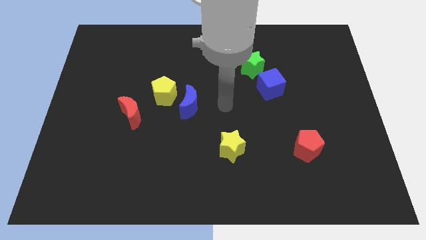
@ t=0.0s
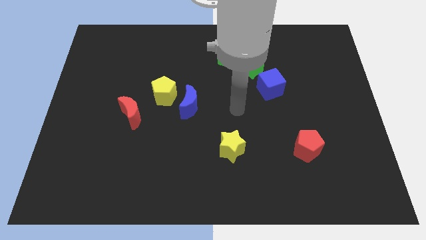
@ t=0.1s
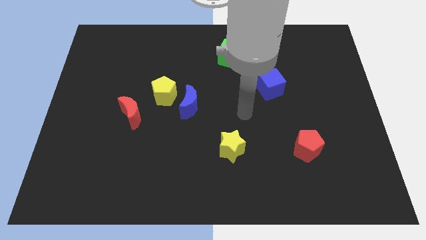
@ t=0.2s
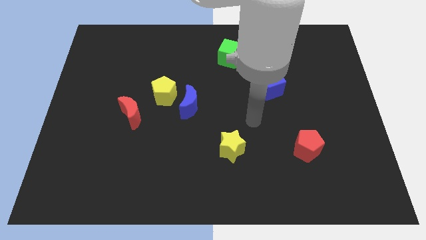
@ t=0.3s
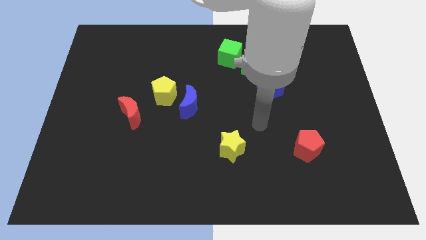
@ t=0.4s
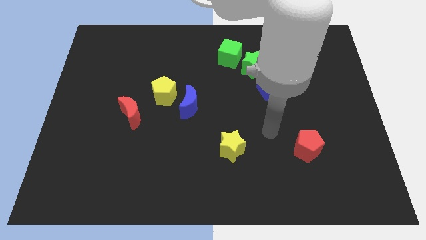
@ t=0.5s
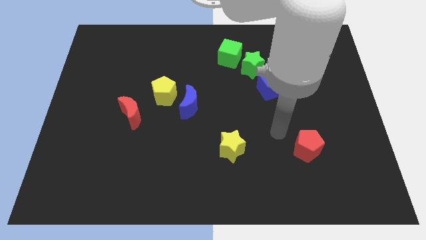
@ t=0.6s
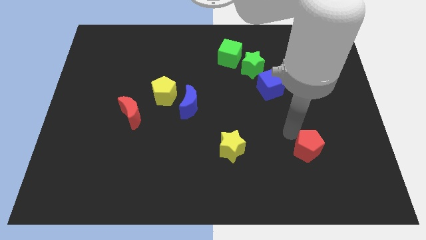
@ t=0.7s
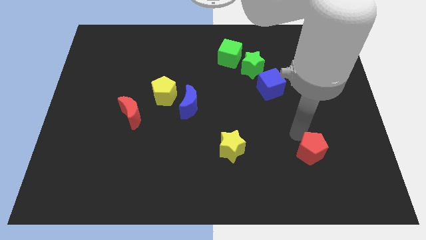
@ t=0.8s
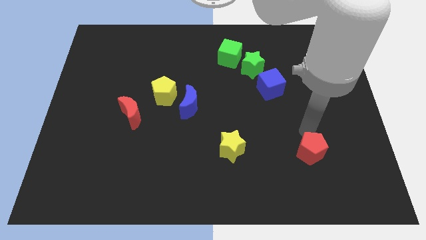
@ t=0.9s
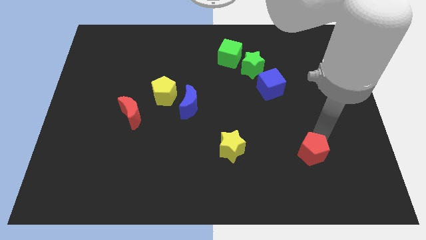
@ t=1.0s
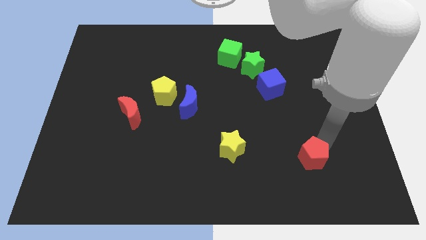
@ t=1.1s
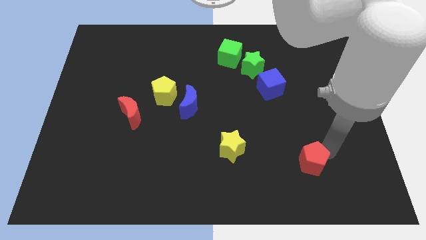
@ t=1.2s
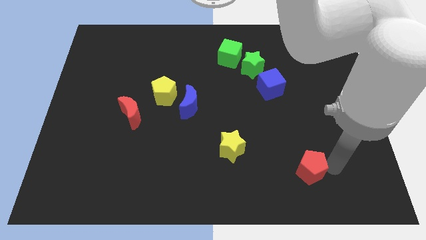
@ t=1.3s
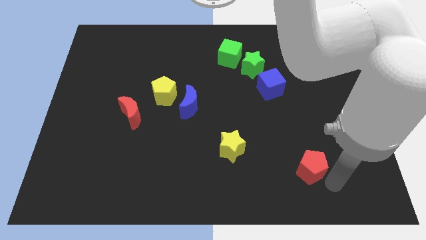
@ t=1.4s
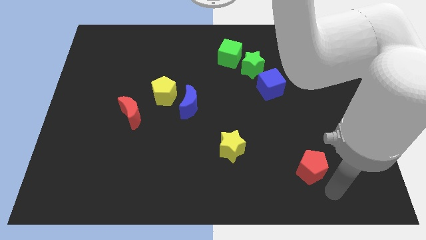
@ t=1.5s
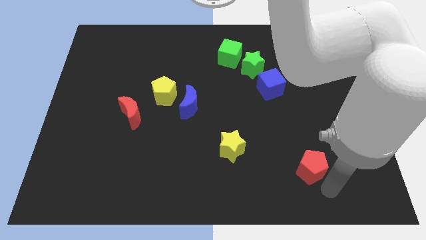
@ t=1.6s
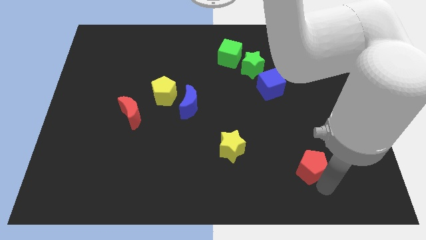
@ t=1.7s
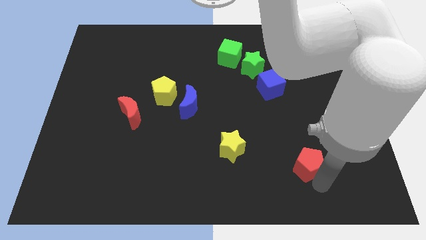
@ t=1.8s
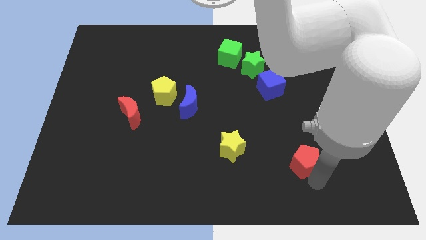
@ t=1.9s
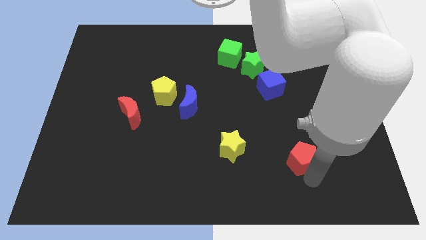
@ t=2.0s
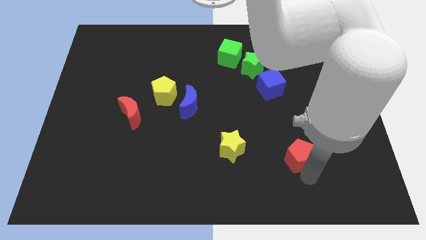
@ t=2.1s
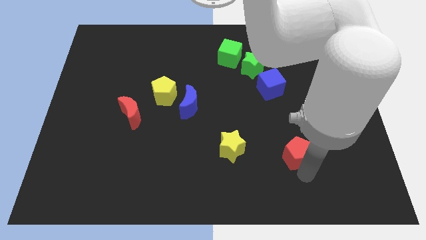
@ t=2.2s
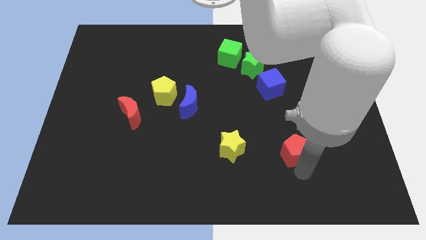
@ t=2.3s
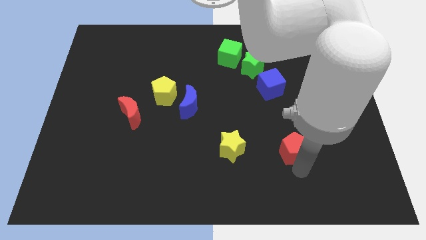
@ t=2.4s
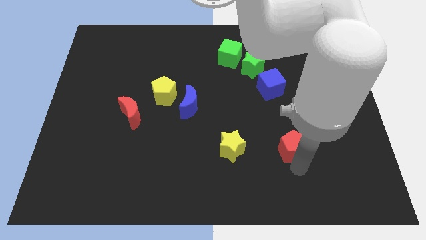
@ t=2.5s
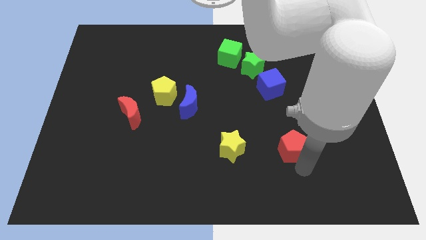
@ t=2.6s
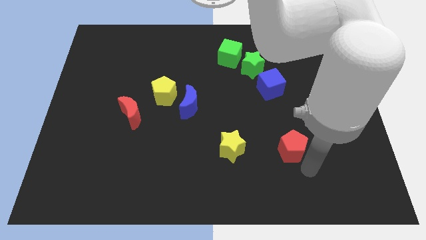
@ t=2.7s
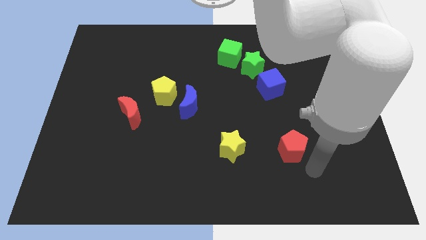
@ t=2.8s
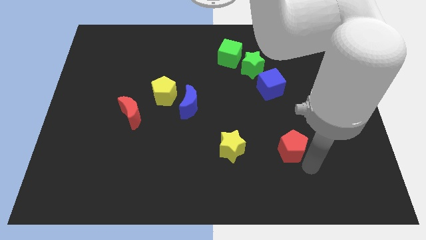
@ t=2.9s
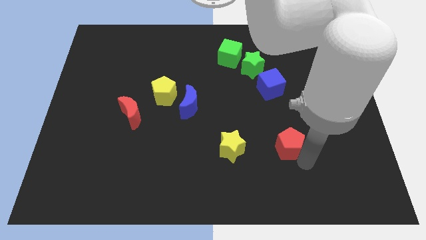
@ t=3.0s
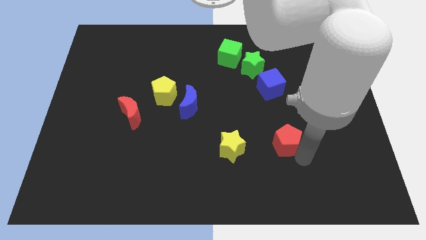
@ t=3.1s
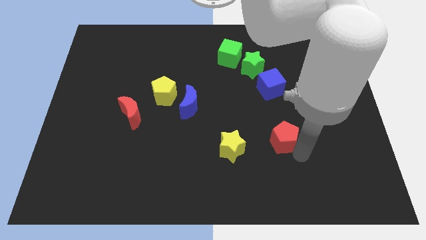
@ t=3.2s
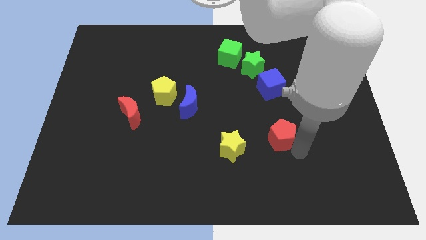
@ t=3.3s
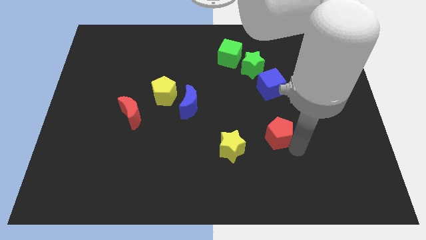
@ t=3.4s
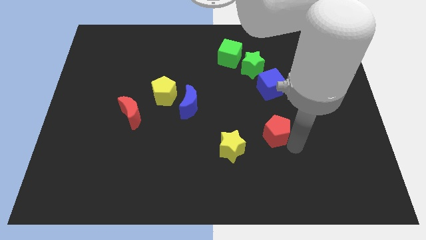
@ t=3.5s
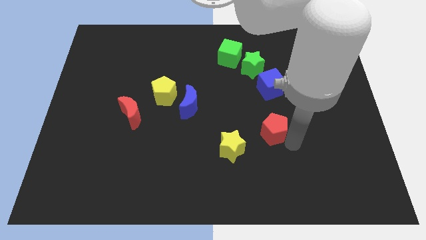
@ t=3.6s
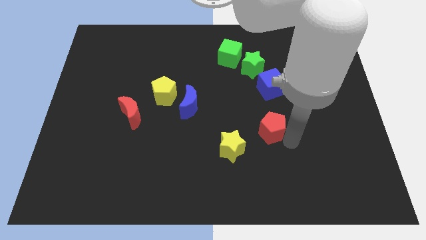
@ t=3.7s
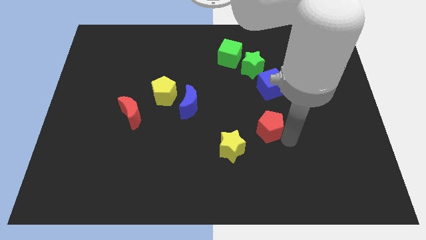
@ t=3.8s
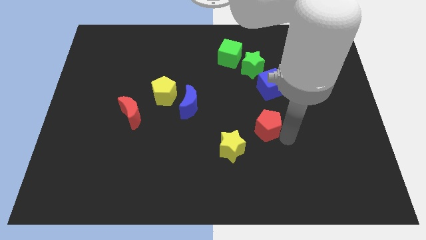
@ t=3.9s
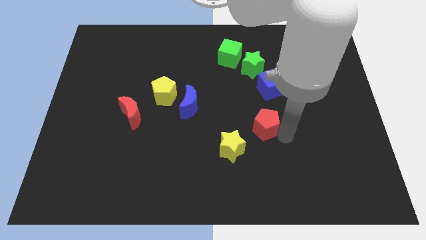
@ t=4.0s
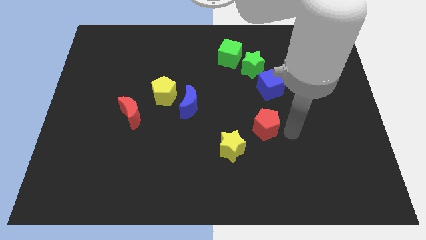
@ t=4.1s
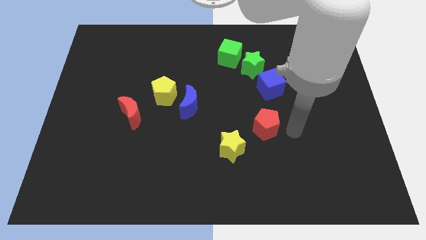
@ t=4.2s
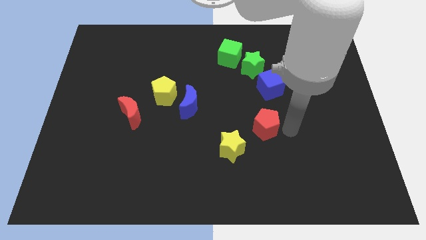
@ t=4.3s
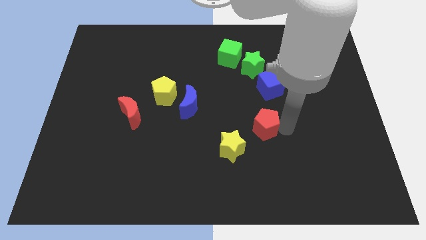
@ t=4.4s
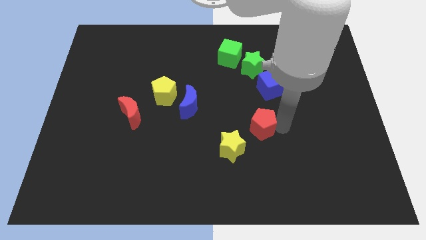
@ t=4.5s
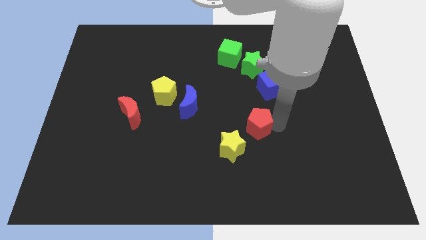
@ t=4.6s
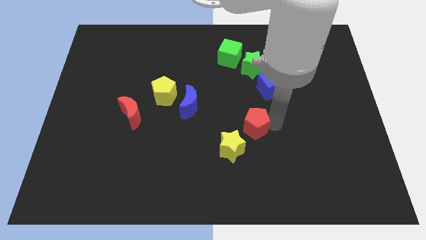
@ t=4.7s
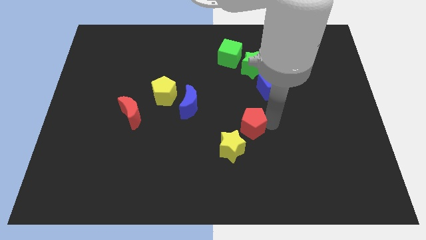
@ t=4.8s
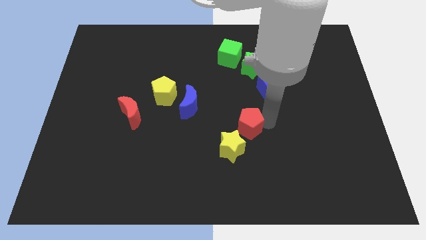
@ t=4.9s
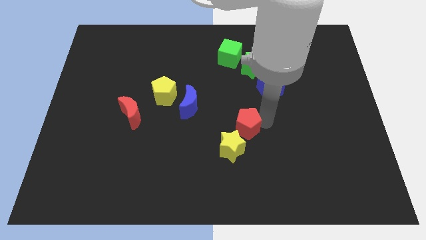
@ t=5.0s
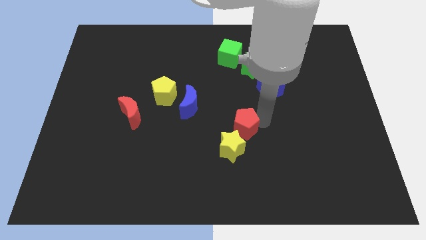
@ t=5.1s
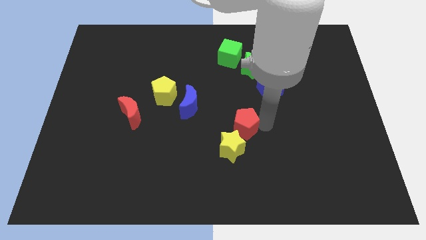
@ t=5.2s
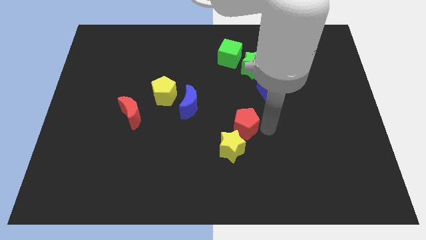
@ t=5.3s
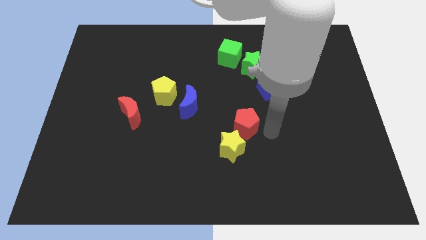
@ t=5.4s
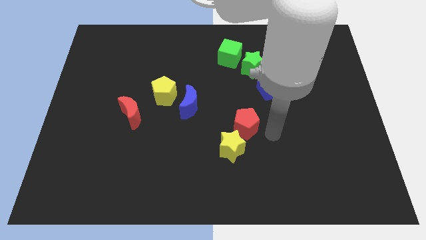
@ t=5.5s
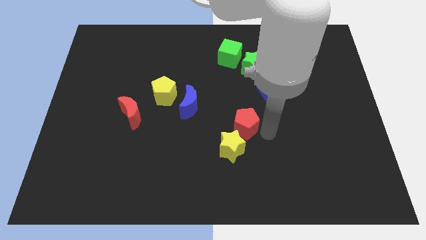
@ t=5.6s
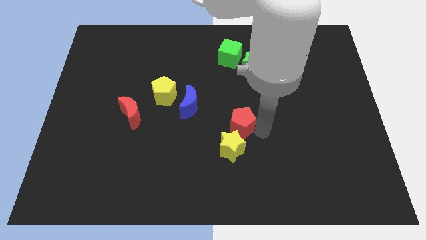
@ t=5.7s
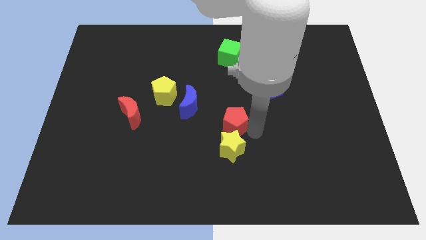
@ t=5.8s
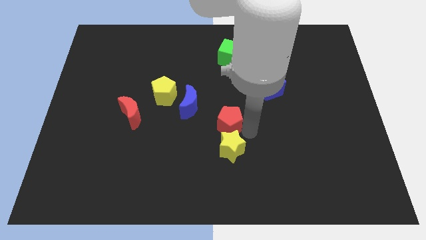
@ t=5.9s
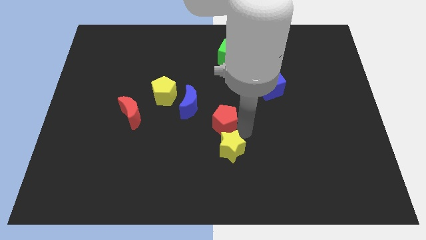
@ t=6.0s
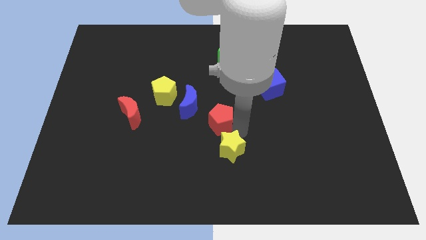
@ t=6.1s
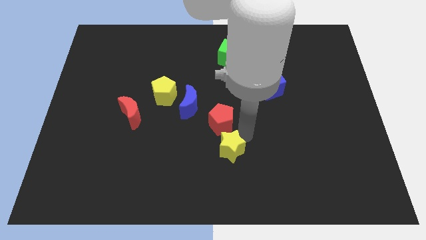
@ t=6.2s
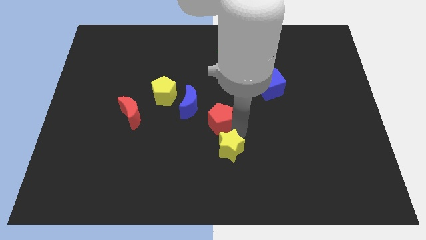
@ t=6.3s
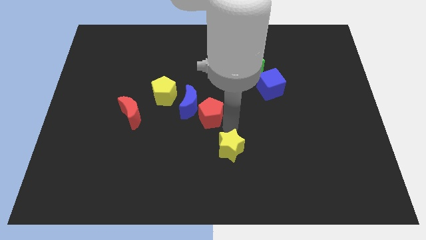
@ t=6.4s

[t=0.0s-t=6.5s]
slide the red pentagon towards the blue moon

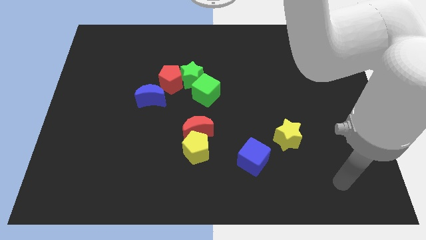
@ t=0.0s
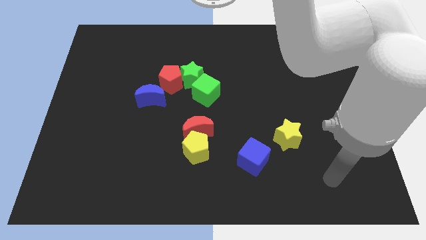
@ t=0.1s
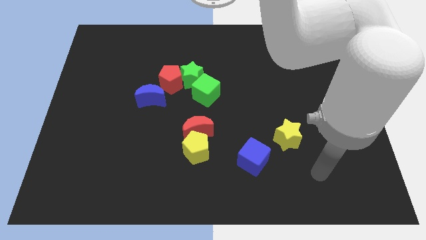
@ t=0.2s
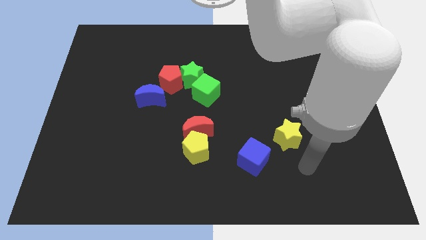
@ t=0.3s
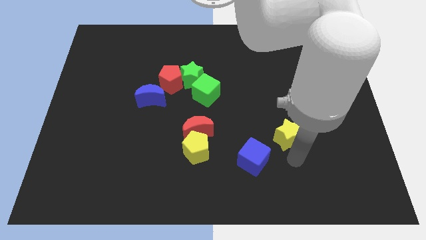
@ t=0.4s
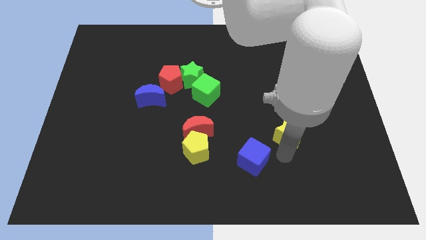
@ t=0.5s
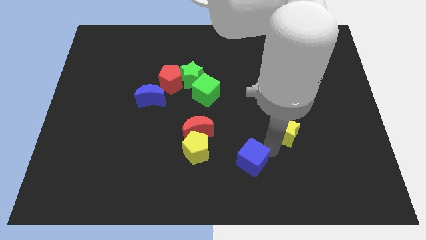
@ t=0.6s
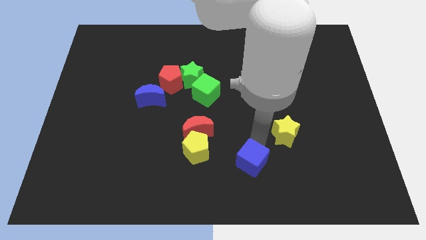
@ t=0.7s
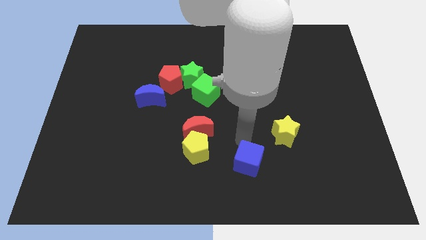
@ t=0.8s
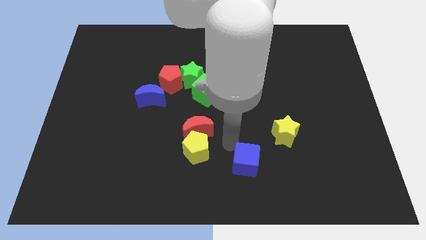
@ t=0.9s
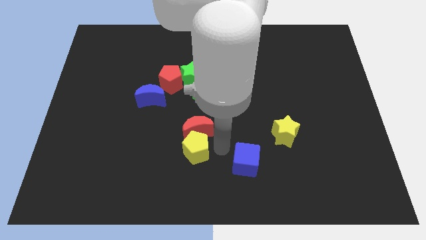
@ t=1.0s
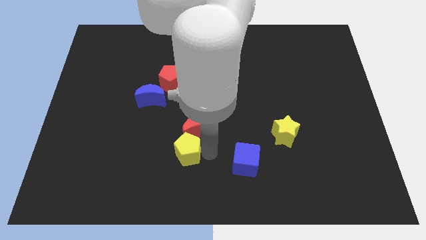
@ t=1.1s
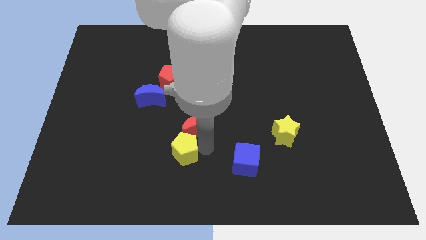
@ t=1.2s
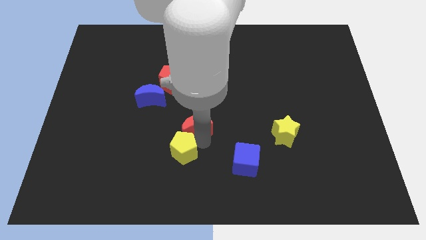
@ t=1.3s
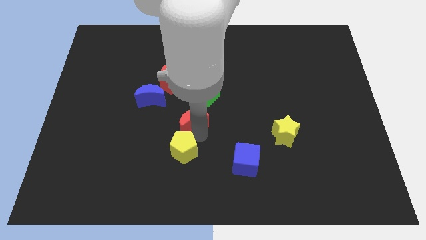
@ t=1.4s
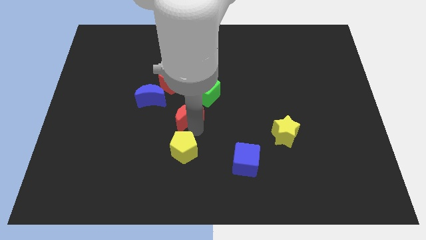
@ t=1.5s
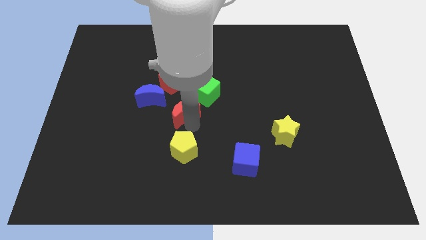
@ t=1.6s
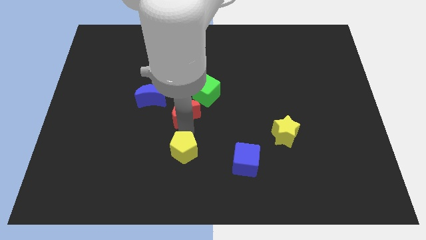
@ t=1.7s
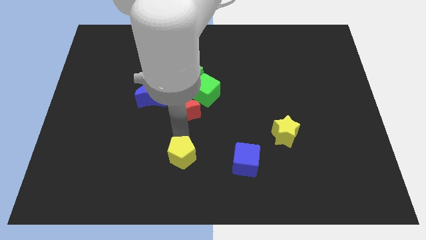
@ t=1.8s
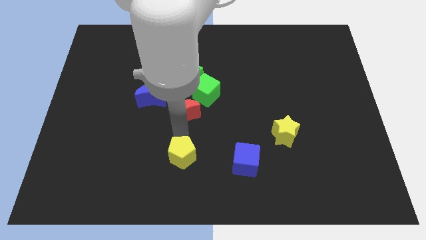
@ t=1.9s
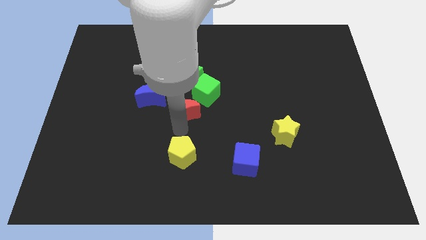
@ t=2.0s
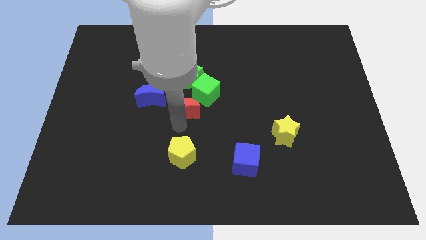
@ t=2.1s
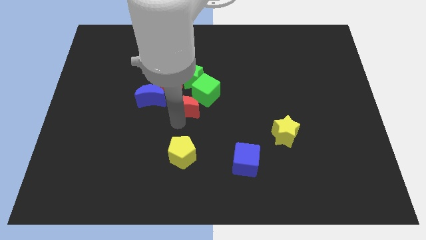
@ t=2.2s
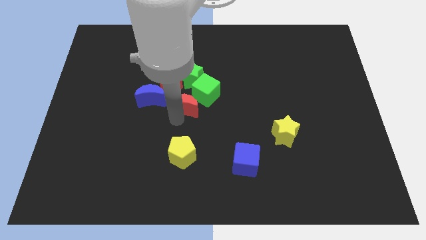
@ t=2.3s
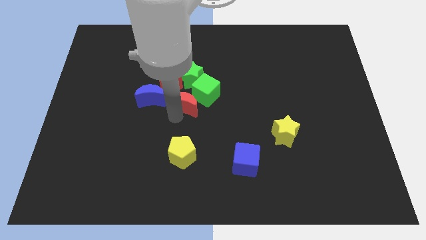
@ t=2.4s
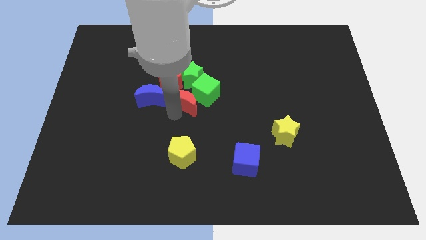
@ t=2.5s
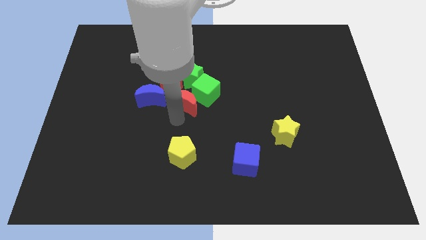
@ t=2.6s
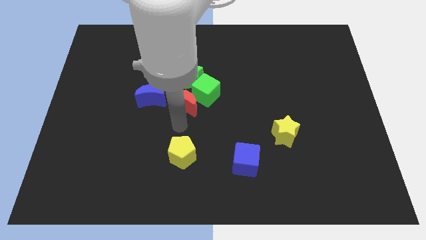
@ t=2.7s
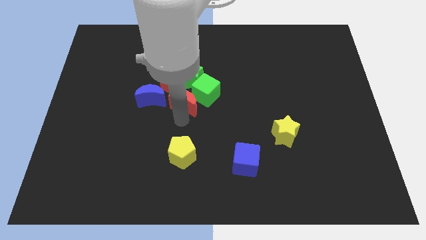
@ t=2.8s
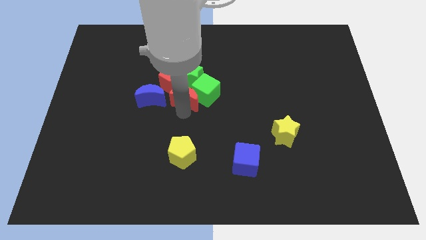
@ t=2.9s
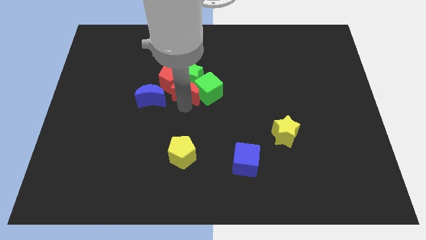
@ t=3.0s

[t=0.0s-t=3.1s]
put the red moon to the green star
